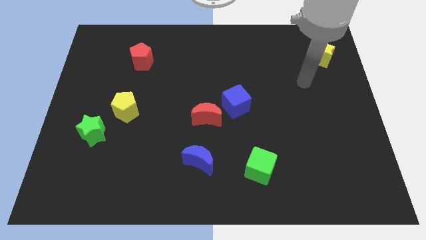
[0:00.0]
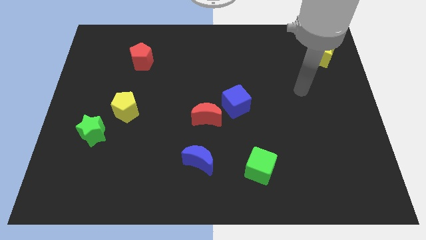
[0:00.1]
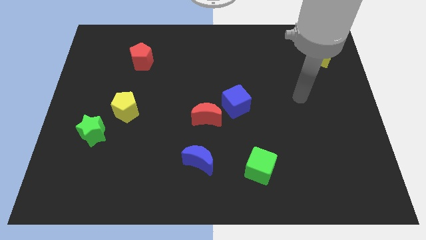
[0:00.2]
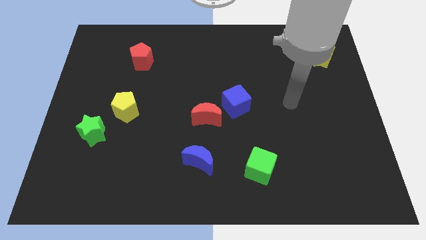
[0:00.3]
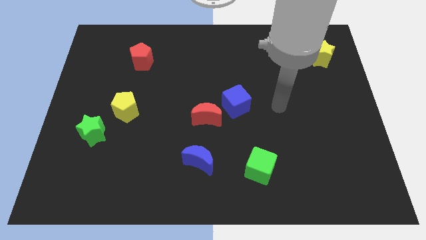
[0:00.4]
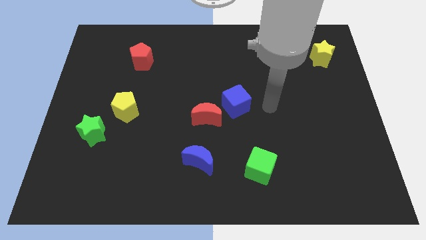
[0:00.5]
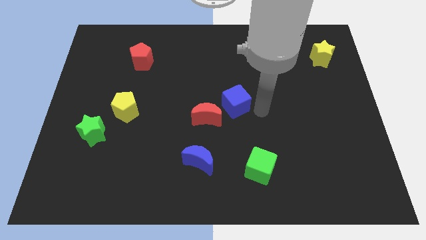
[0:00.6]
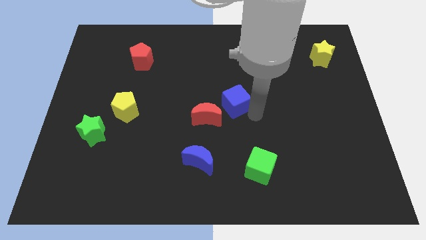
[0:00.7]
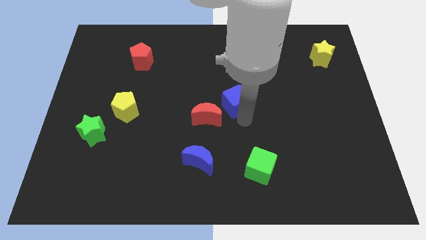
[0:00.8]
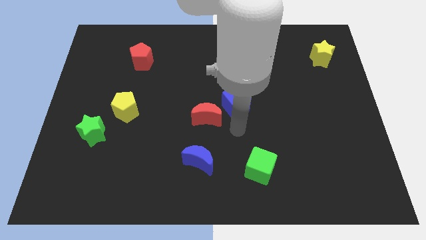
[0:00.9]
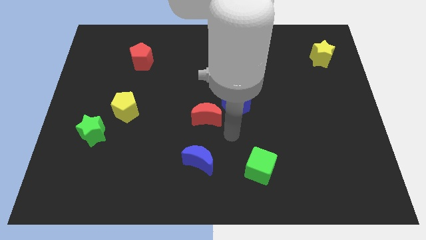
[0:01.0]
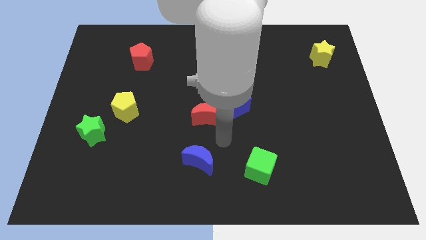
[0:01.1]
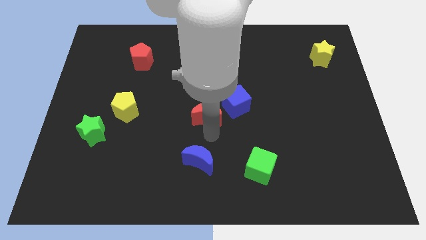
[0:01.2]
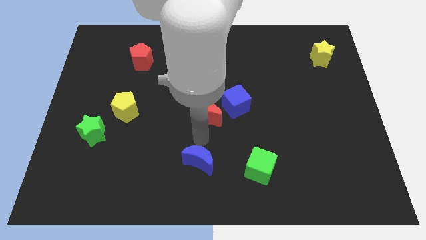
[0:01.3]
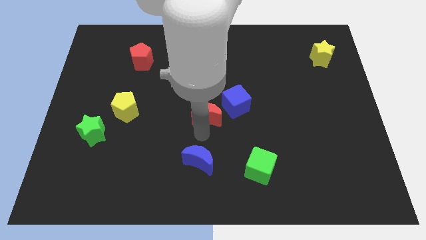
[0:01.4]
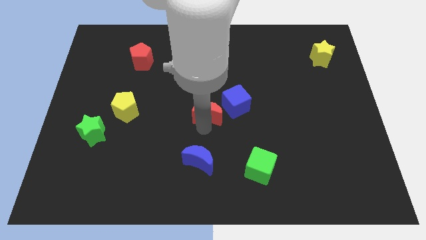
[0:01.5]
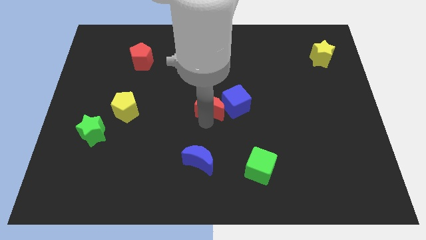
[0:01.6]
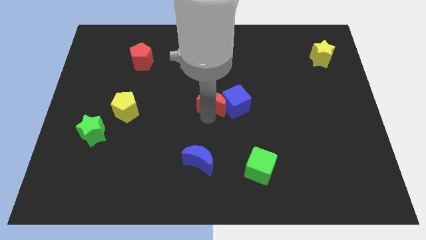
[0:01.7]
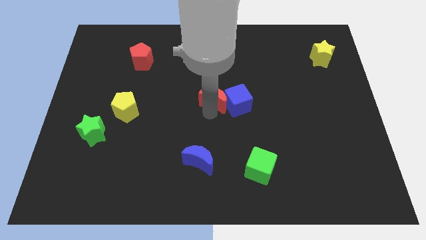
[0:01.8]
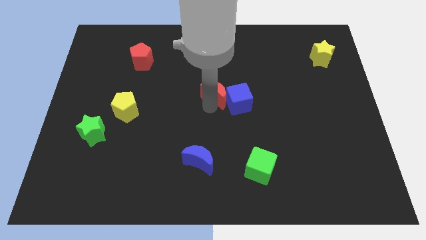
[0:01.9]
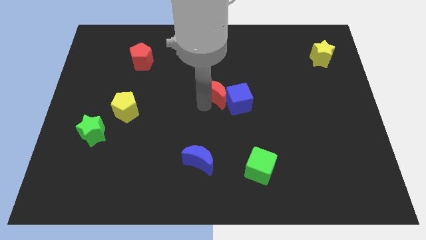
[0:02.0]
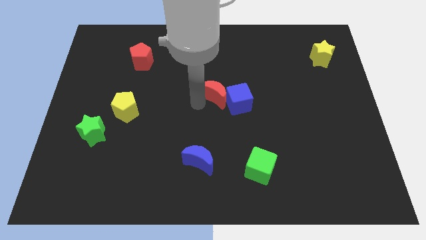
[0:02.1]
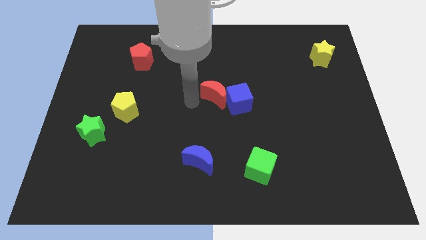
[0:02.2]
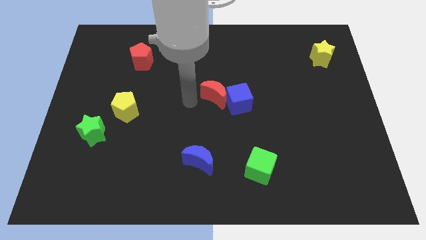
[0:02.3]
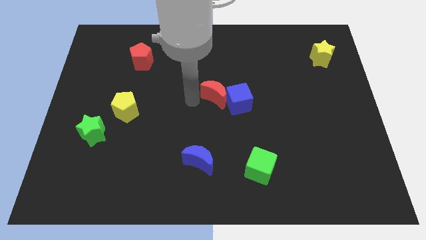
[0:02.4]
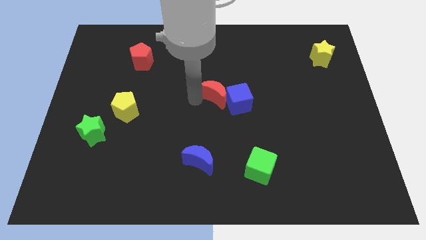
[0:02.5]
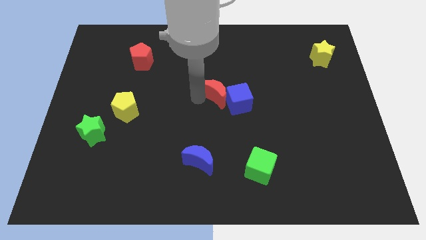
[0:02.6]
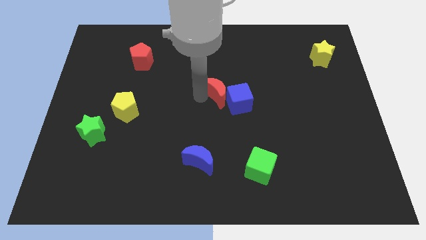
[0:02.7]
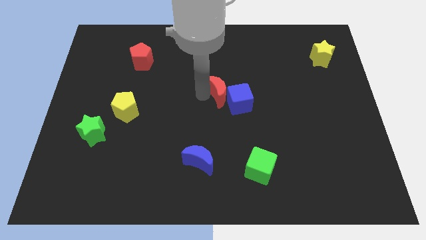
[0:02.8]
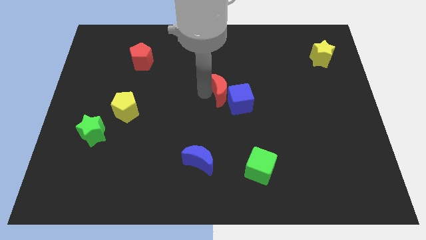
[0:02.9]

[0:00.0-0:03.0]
move the red moon somewhat diagonally up and to the right

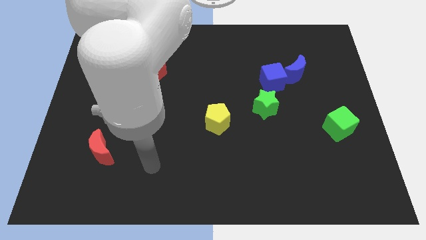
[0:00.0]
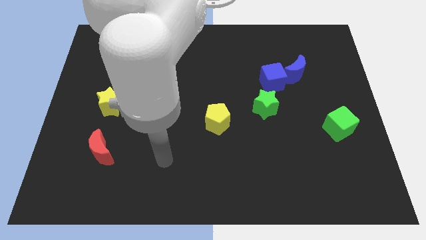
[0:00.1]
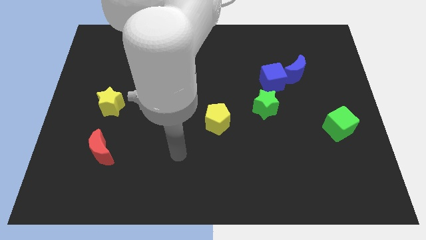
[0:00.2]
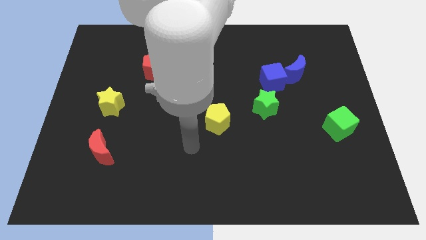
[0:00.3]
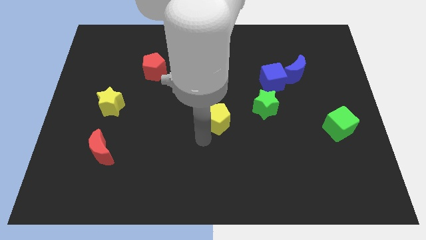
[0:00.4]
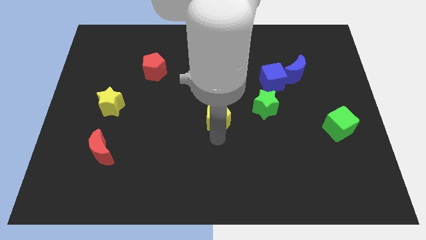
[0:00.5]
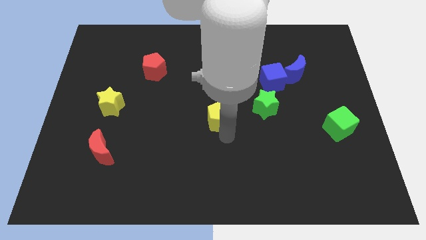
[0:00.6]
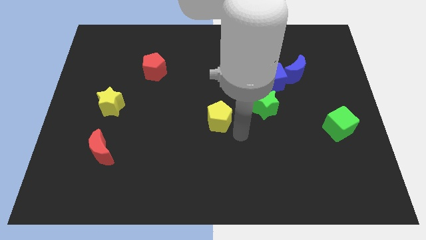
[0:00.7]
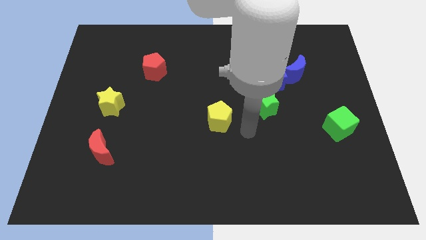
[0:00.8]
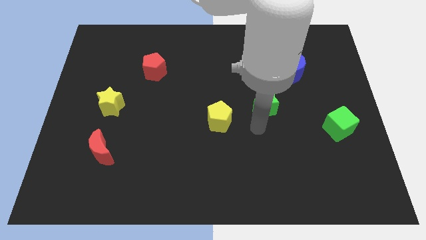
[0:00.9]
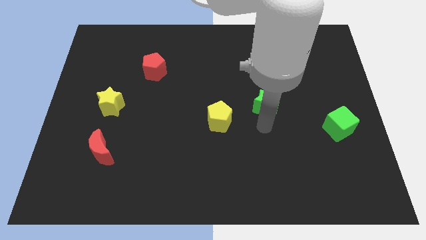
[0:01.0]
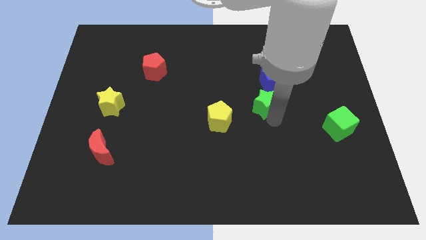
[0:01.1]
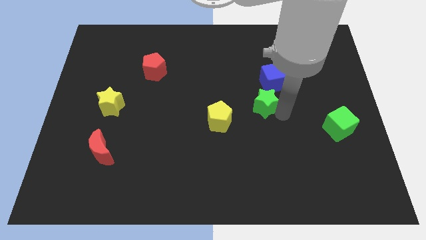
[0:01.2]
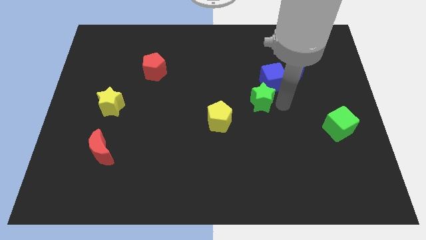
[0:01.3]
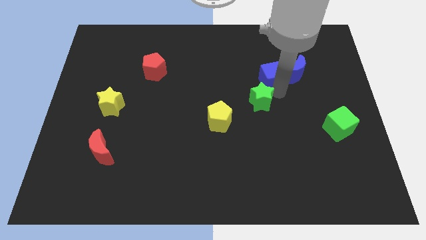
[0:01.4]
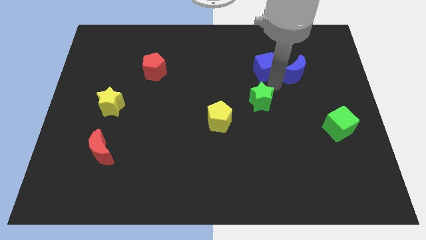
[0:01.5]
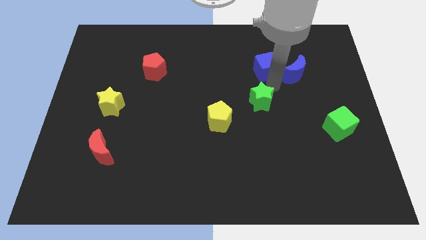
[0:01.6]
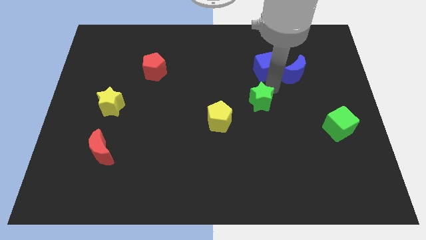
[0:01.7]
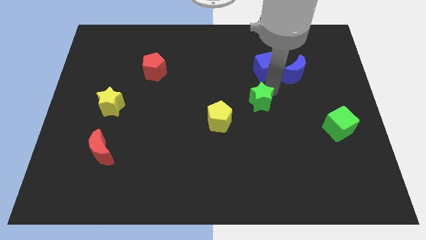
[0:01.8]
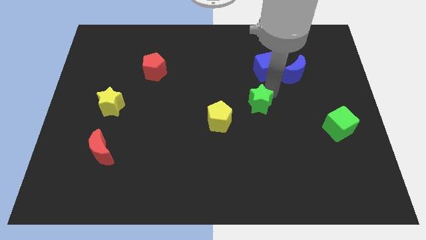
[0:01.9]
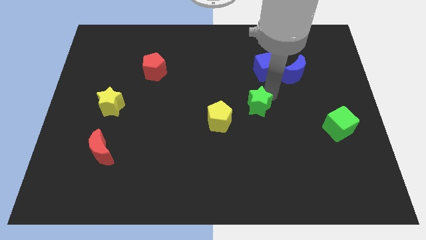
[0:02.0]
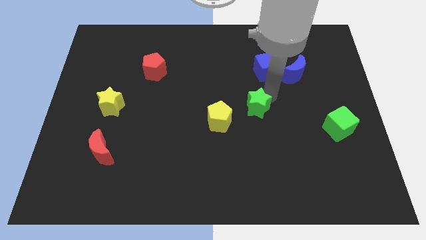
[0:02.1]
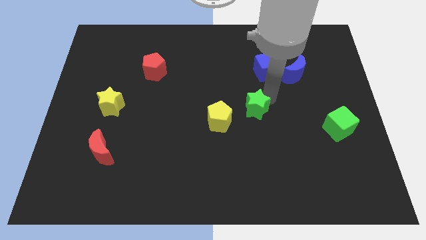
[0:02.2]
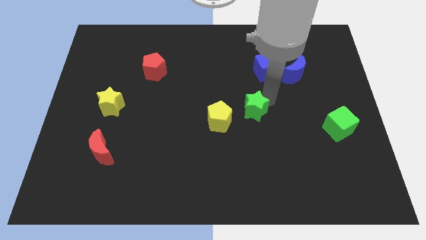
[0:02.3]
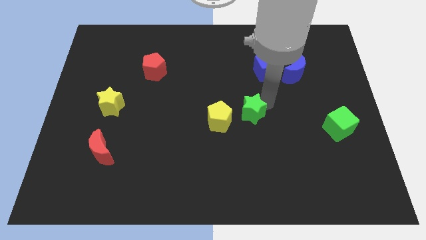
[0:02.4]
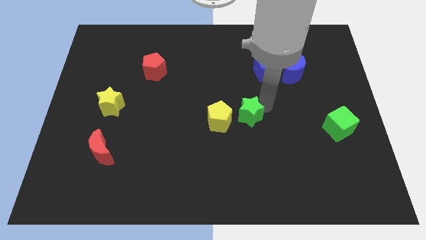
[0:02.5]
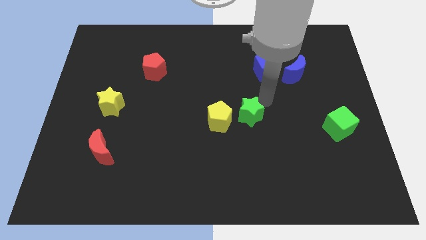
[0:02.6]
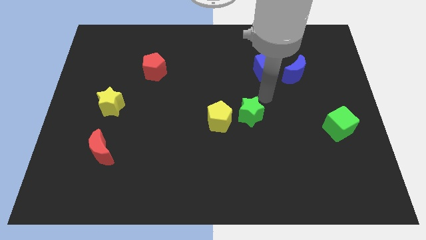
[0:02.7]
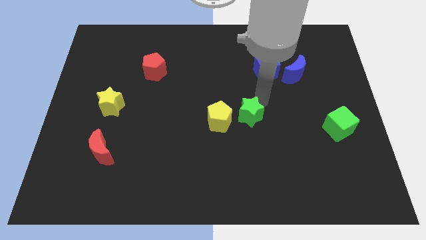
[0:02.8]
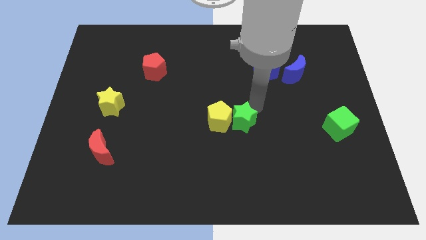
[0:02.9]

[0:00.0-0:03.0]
move the green star down and left somewhat

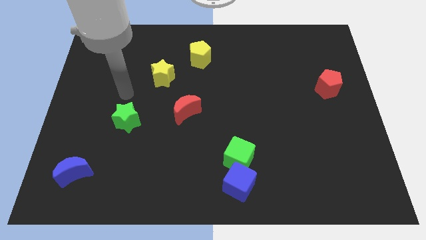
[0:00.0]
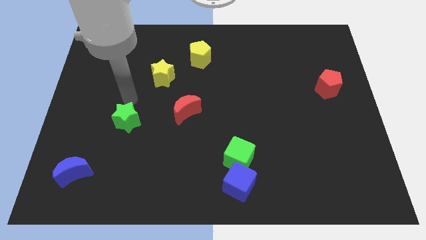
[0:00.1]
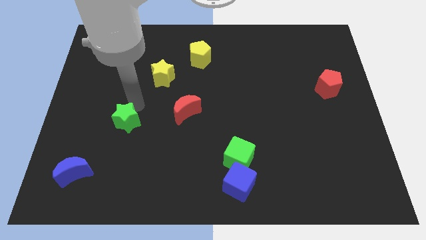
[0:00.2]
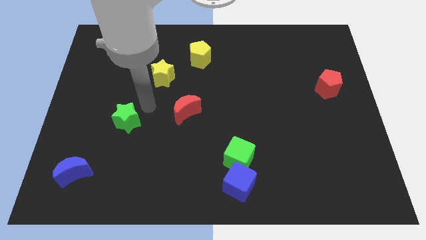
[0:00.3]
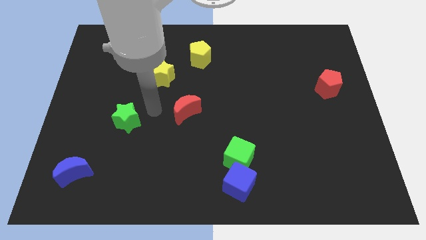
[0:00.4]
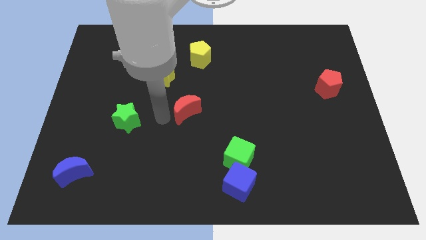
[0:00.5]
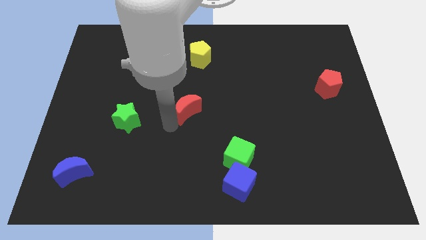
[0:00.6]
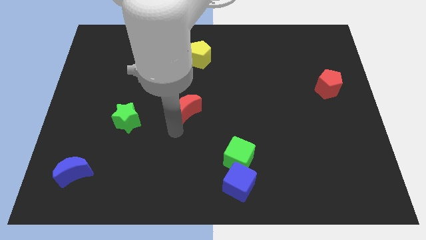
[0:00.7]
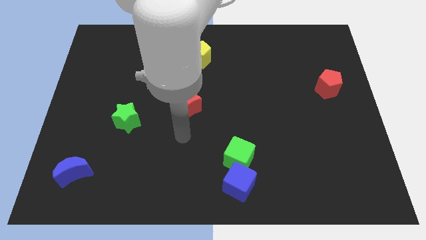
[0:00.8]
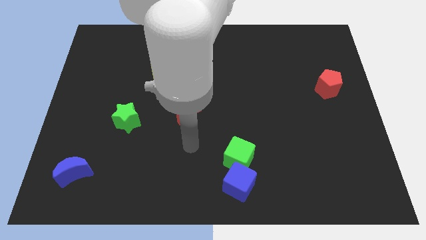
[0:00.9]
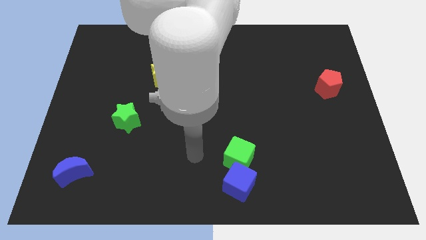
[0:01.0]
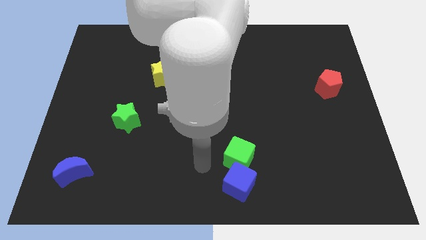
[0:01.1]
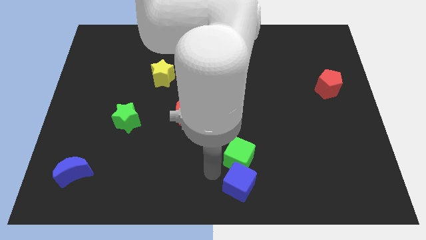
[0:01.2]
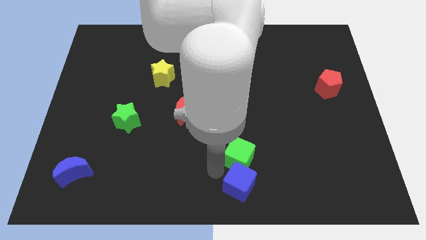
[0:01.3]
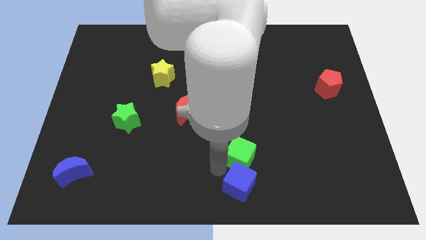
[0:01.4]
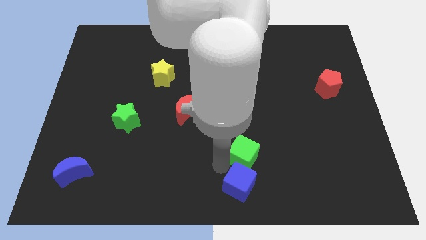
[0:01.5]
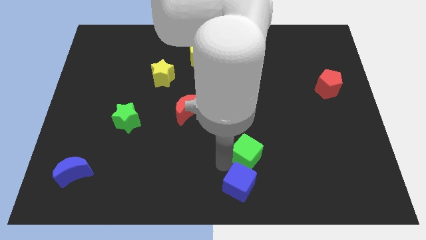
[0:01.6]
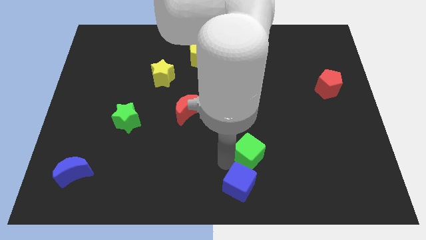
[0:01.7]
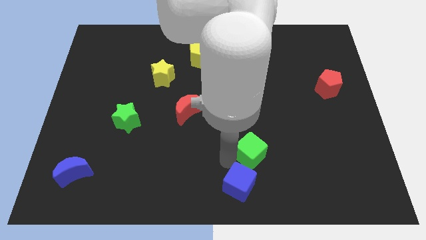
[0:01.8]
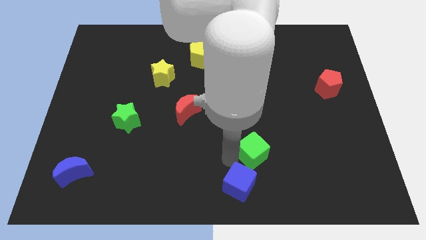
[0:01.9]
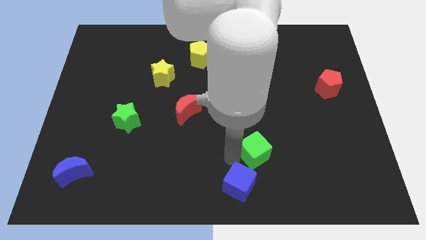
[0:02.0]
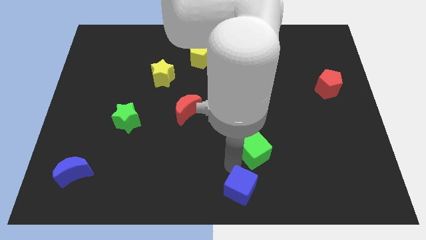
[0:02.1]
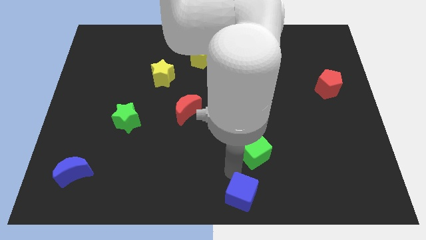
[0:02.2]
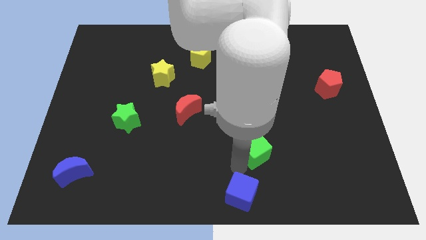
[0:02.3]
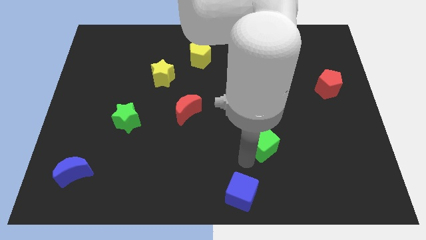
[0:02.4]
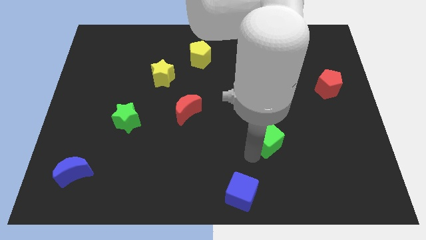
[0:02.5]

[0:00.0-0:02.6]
push the green cube upwards and then to the right a bit
